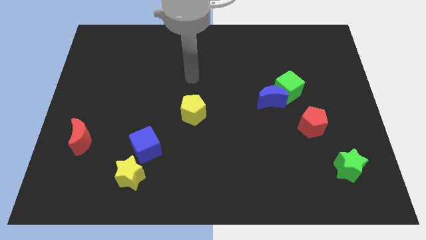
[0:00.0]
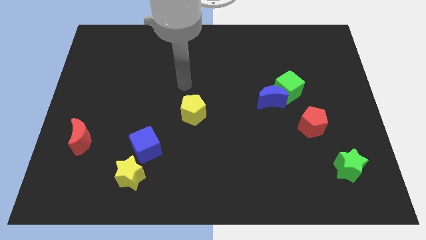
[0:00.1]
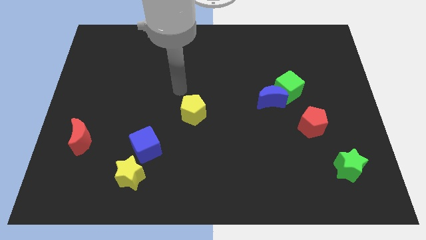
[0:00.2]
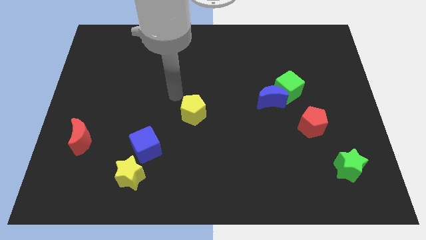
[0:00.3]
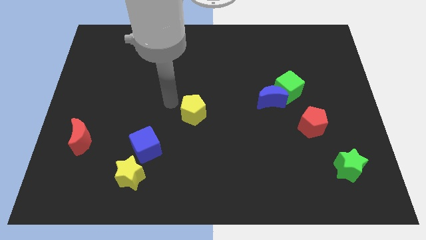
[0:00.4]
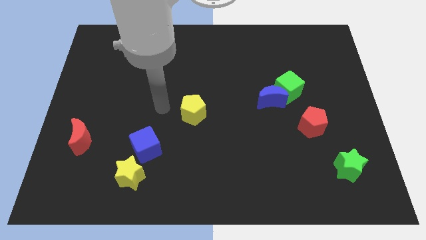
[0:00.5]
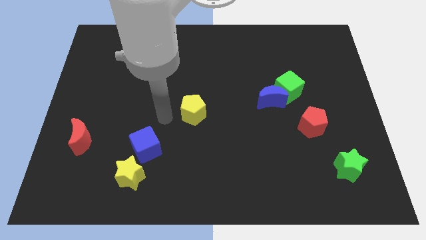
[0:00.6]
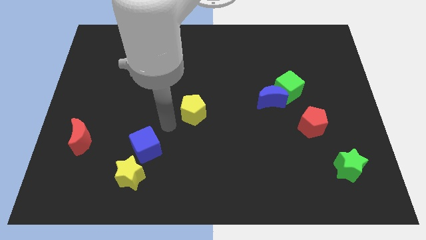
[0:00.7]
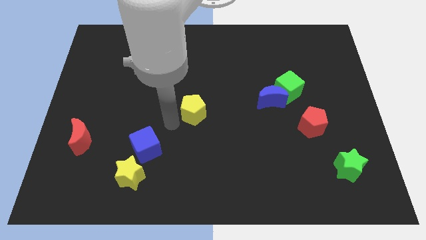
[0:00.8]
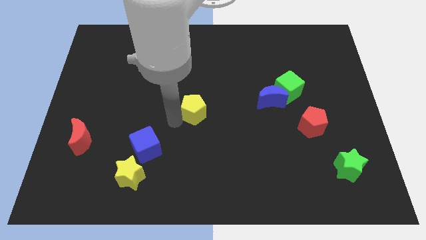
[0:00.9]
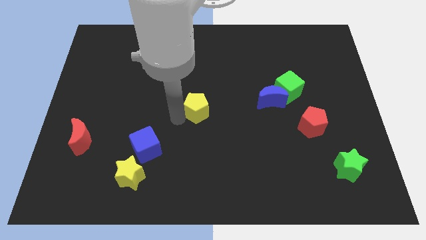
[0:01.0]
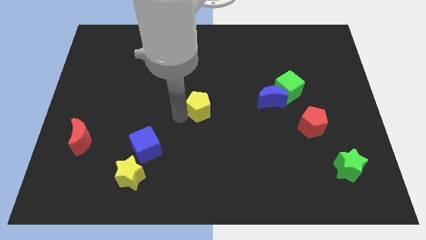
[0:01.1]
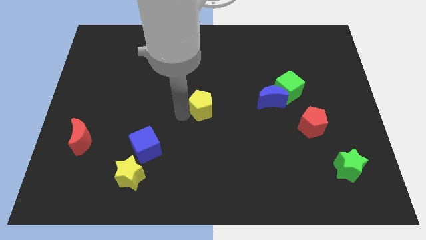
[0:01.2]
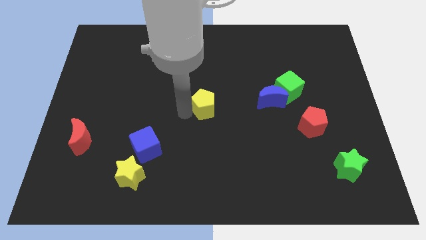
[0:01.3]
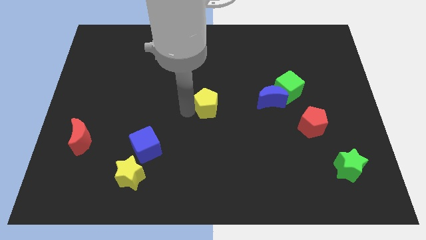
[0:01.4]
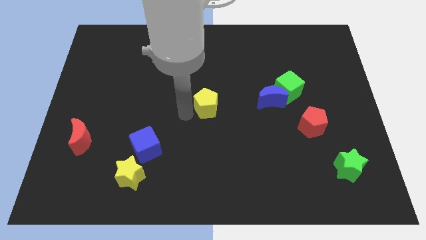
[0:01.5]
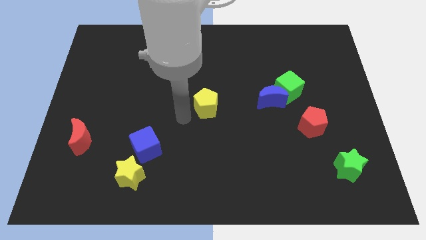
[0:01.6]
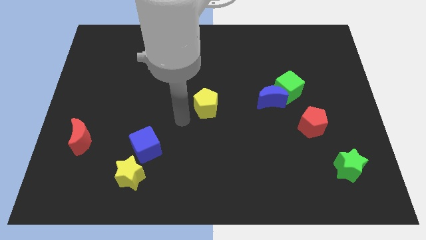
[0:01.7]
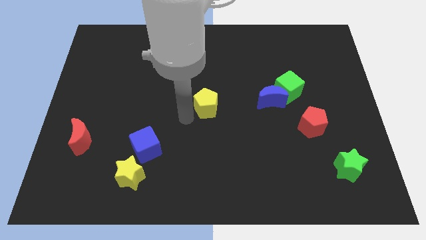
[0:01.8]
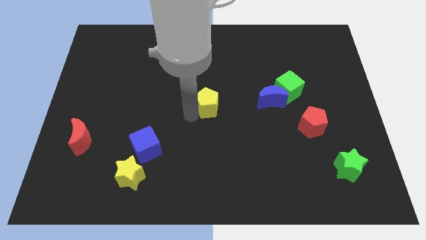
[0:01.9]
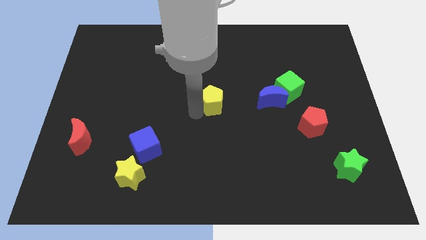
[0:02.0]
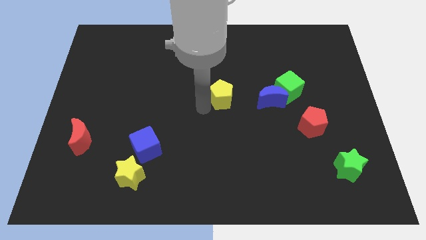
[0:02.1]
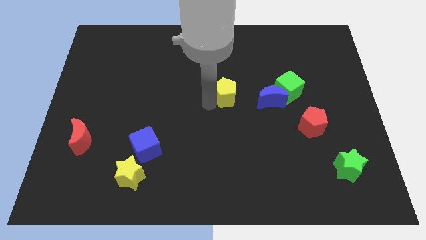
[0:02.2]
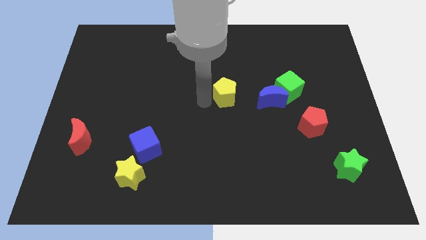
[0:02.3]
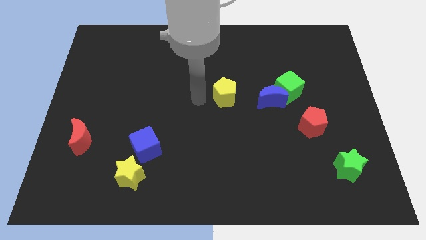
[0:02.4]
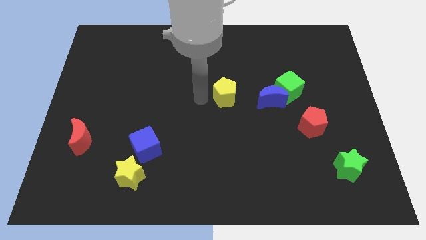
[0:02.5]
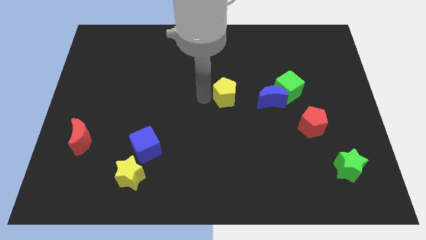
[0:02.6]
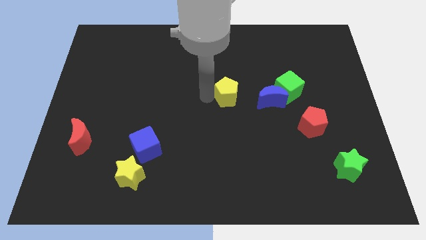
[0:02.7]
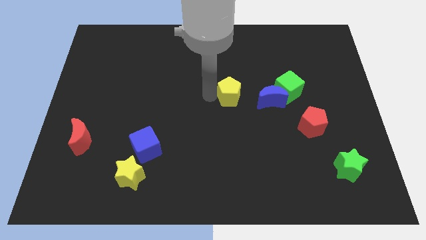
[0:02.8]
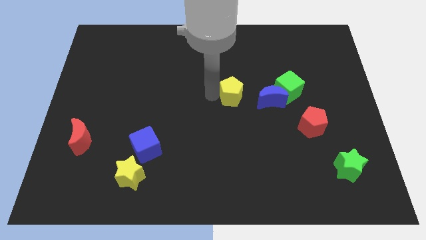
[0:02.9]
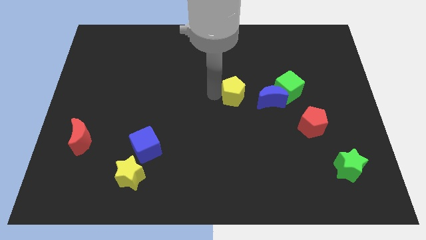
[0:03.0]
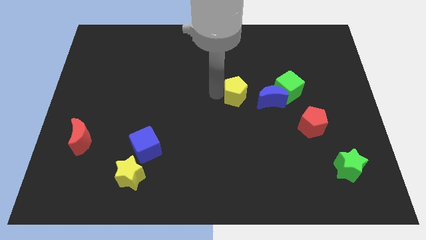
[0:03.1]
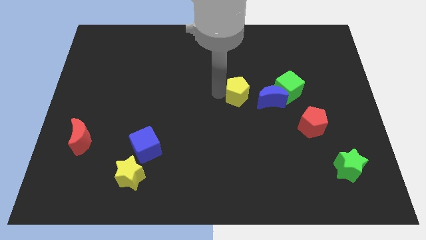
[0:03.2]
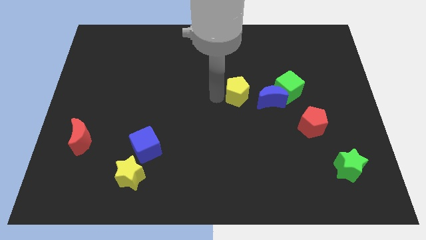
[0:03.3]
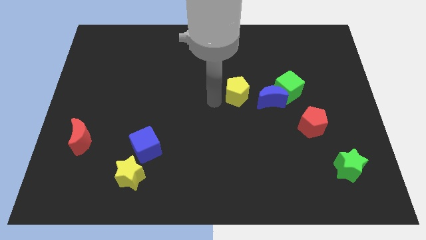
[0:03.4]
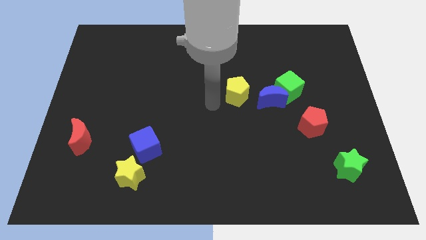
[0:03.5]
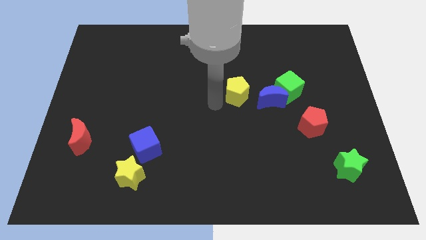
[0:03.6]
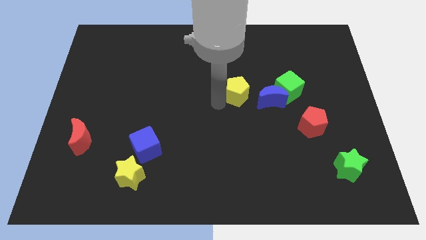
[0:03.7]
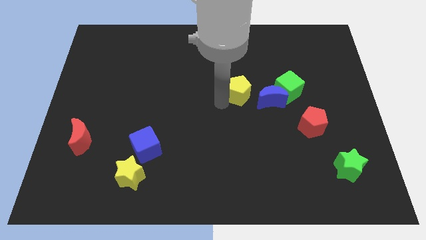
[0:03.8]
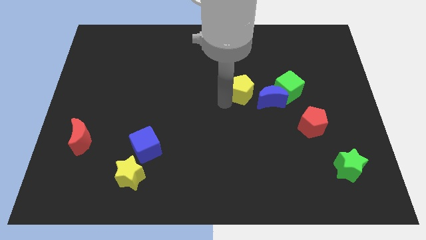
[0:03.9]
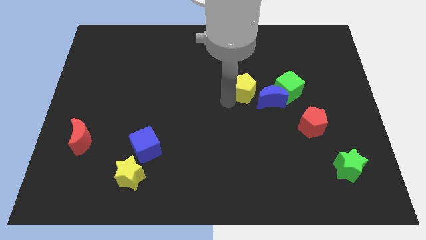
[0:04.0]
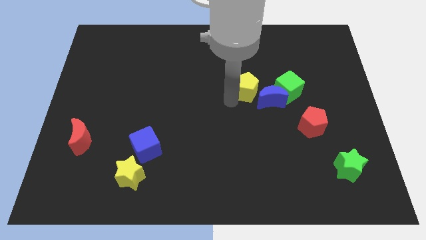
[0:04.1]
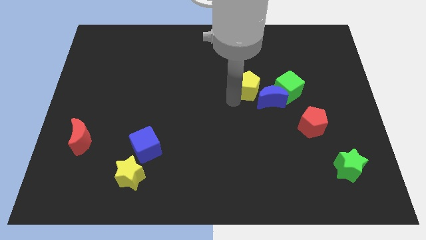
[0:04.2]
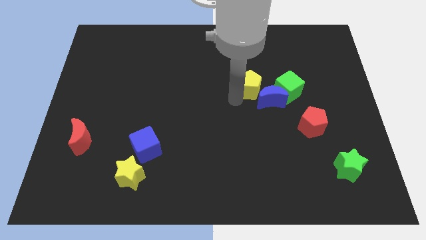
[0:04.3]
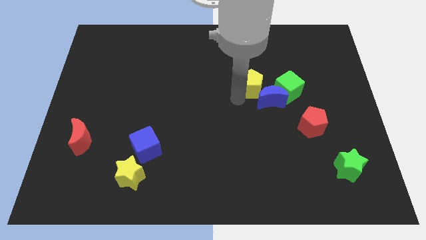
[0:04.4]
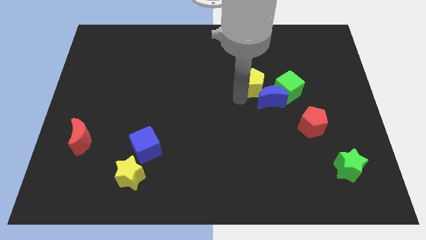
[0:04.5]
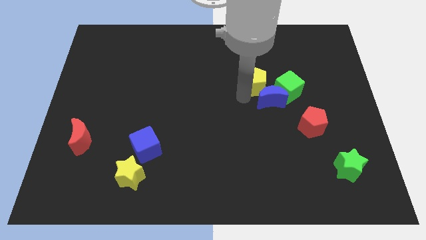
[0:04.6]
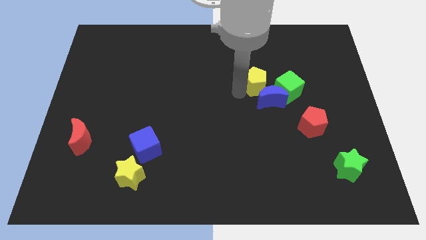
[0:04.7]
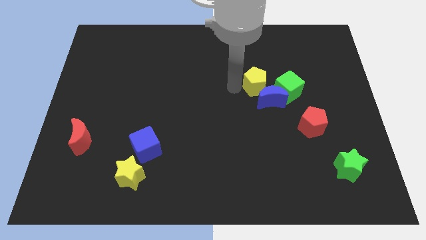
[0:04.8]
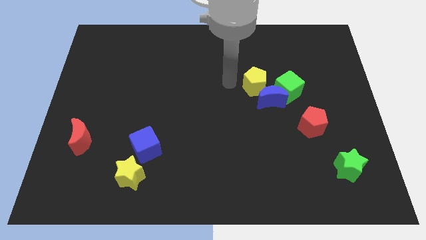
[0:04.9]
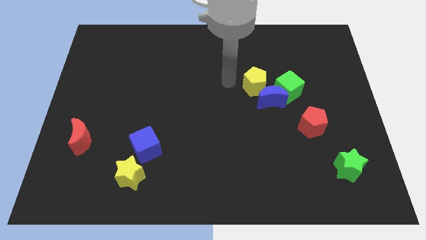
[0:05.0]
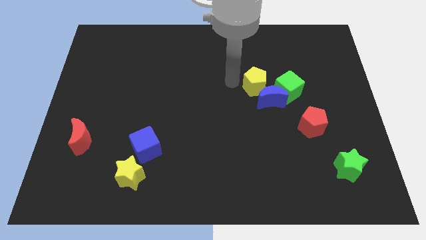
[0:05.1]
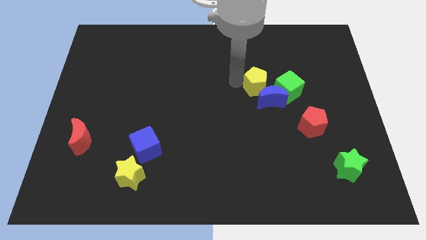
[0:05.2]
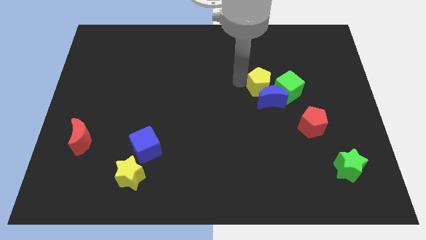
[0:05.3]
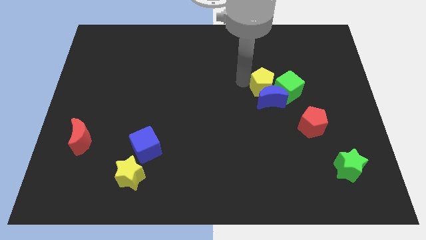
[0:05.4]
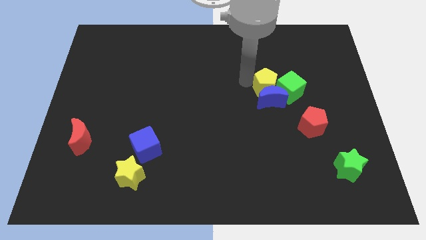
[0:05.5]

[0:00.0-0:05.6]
move the yellow pentagon to the green cube

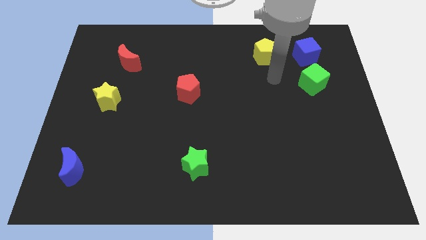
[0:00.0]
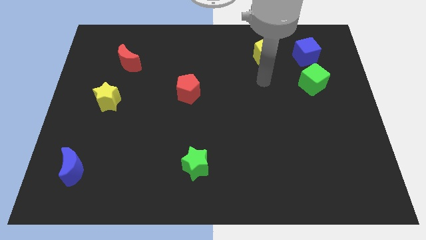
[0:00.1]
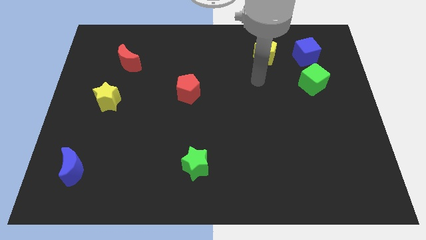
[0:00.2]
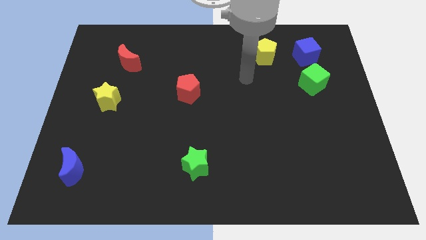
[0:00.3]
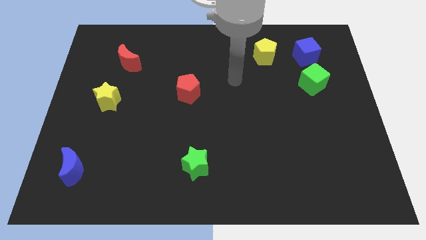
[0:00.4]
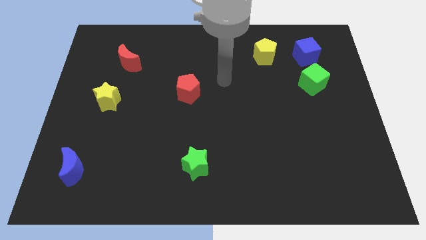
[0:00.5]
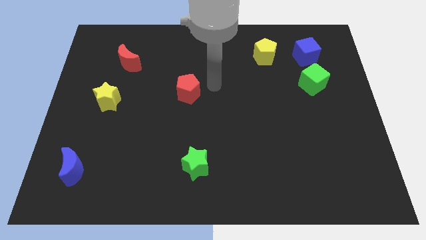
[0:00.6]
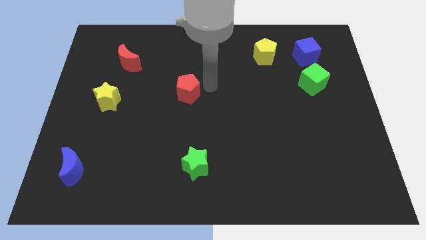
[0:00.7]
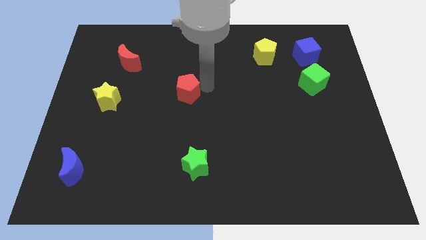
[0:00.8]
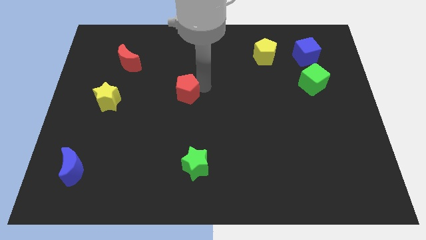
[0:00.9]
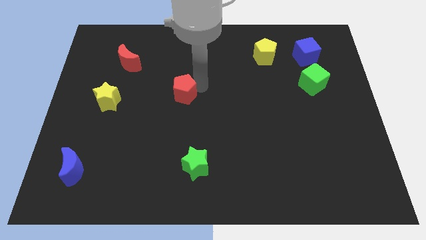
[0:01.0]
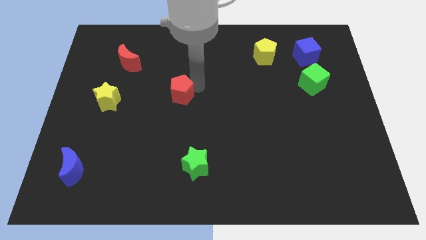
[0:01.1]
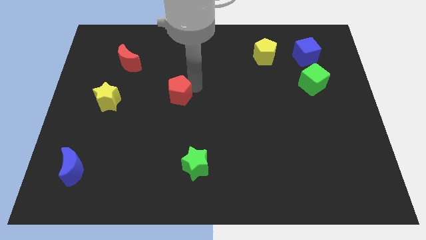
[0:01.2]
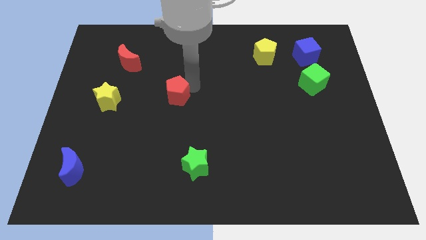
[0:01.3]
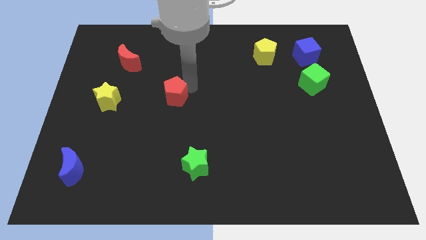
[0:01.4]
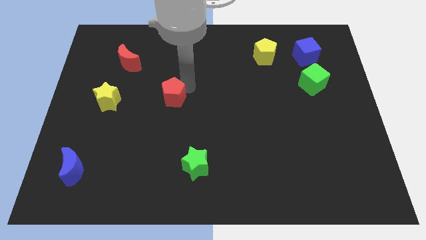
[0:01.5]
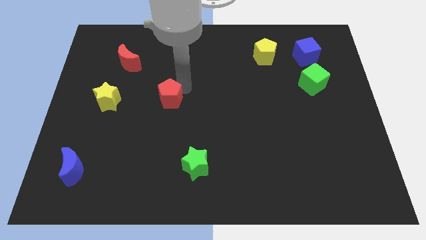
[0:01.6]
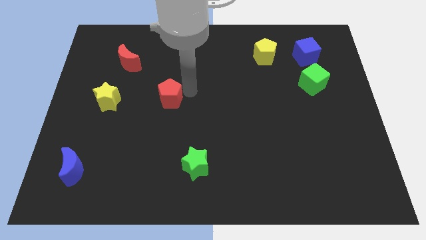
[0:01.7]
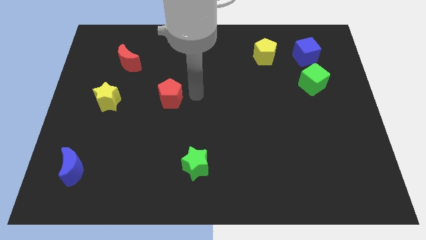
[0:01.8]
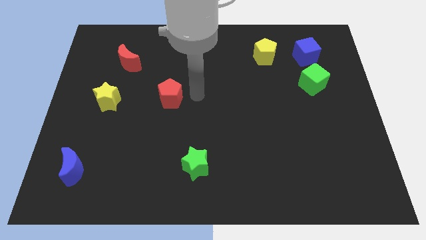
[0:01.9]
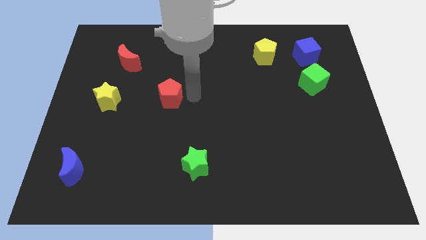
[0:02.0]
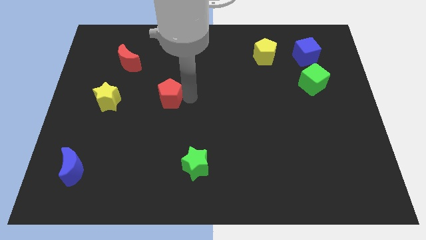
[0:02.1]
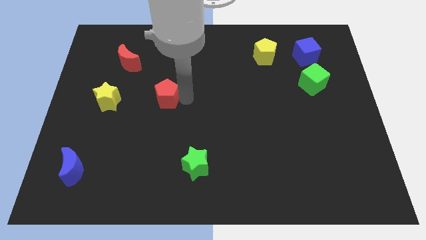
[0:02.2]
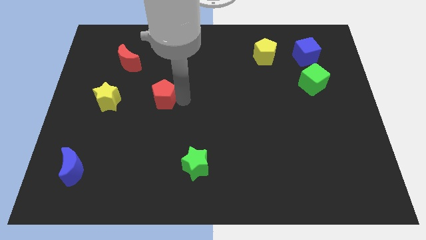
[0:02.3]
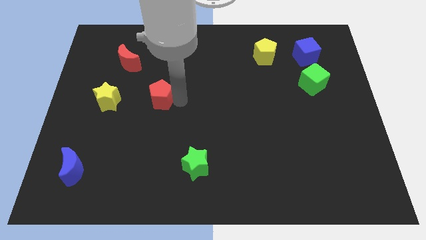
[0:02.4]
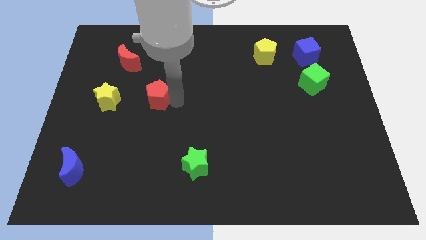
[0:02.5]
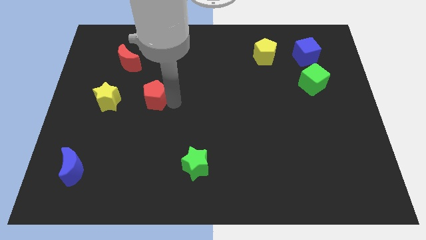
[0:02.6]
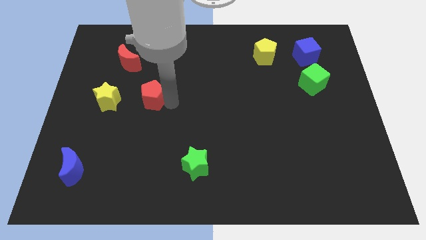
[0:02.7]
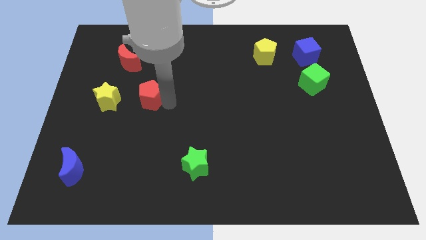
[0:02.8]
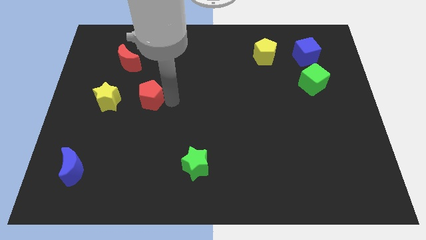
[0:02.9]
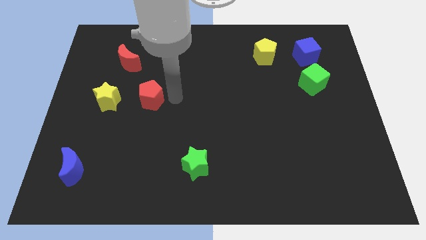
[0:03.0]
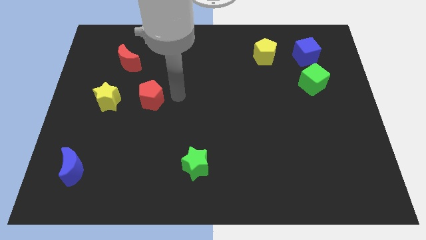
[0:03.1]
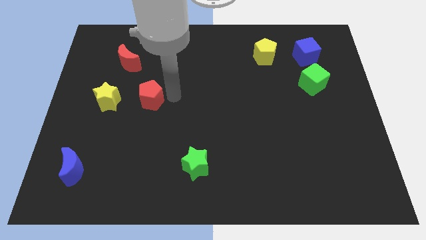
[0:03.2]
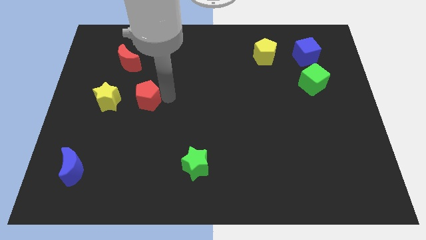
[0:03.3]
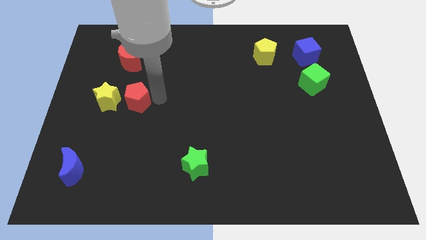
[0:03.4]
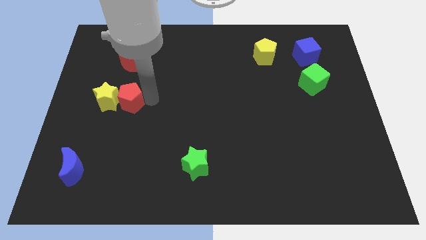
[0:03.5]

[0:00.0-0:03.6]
slide the red pentagon towards the yellow star
